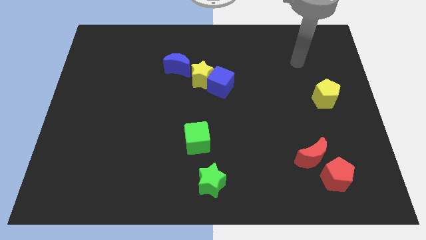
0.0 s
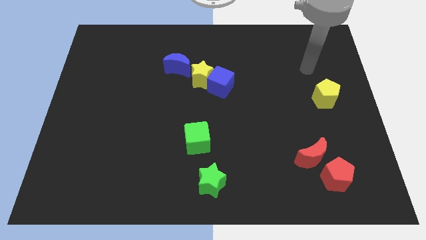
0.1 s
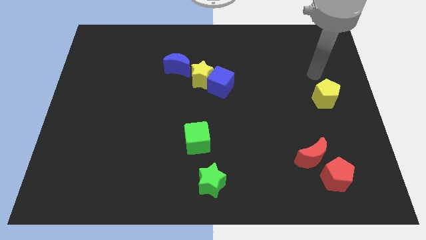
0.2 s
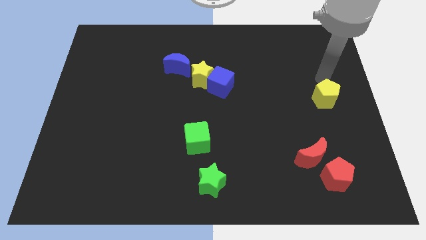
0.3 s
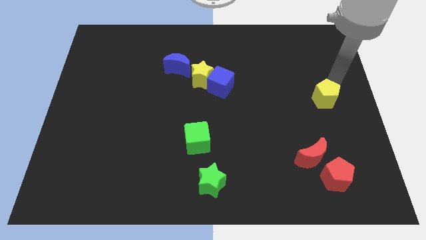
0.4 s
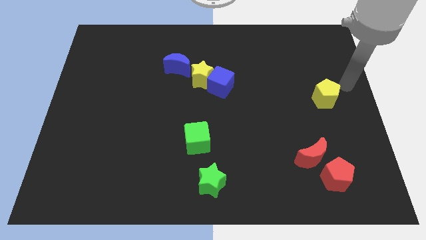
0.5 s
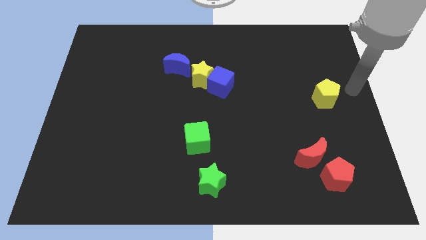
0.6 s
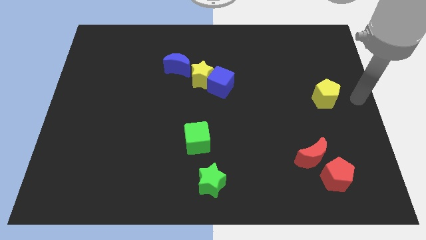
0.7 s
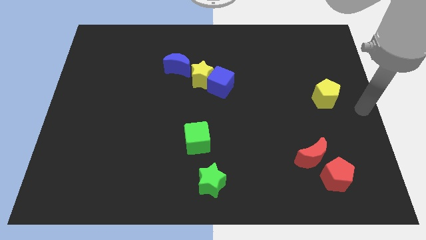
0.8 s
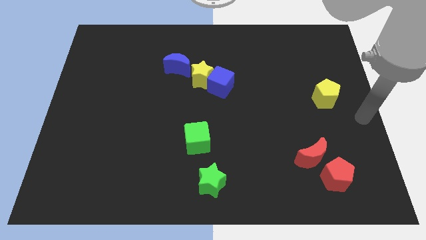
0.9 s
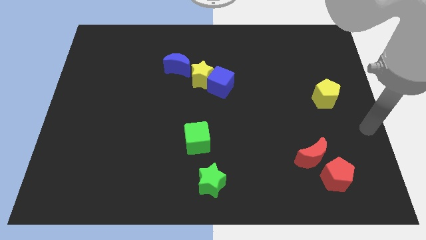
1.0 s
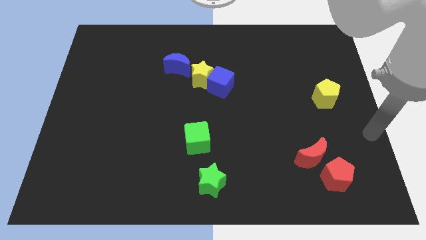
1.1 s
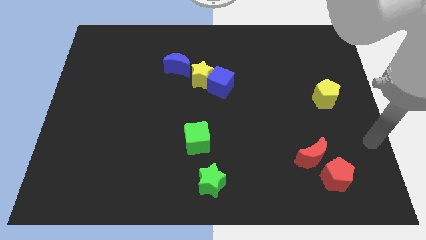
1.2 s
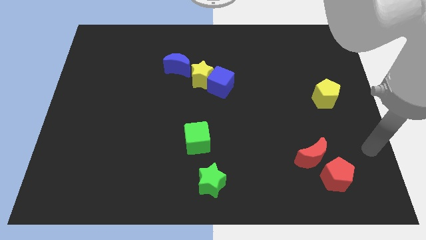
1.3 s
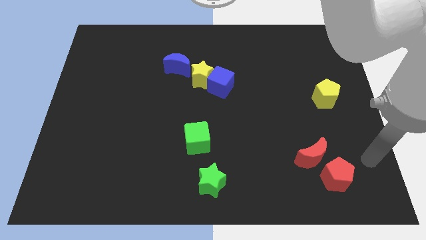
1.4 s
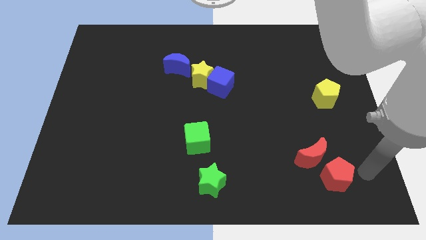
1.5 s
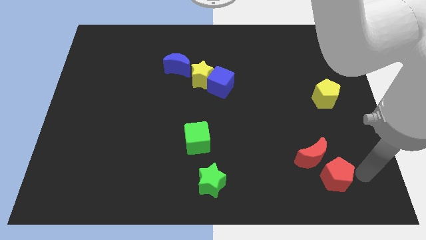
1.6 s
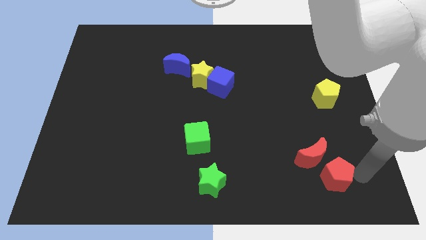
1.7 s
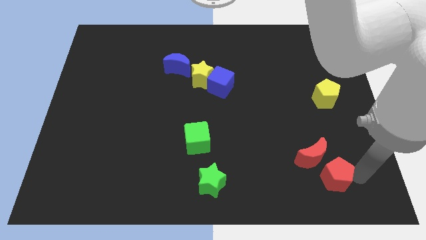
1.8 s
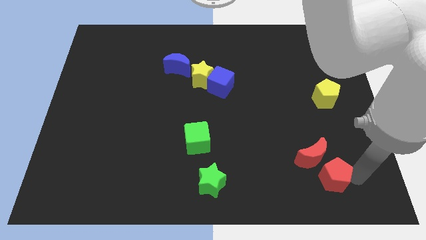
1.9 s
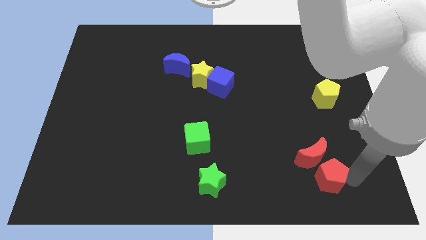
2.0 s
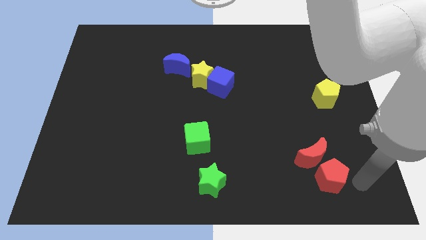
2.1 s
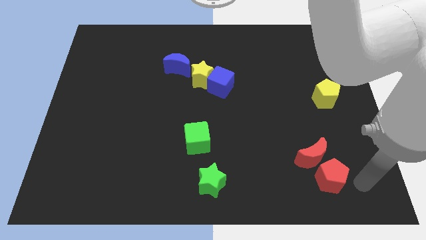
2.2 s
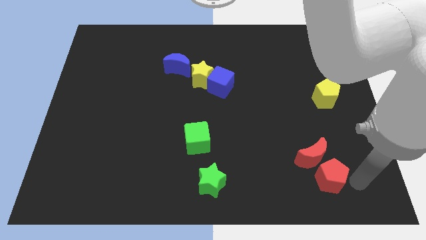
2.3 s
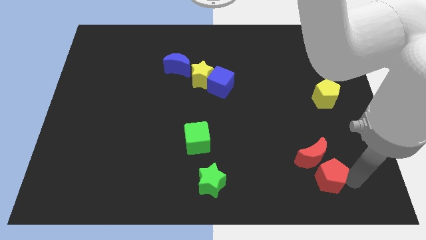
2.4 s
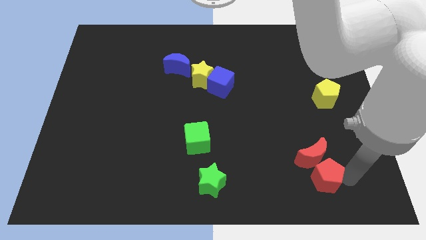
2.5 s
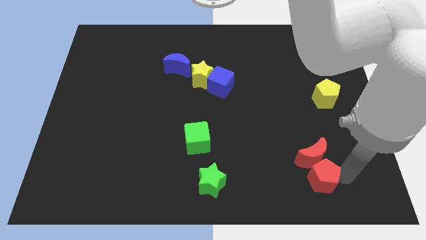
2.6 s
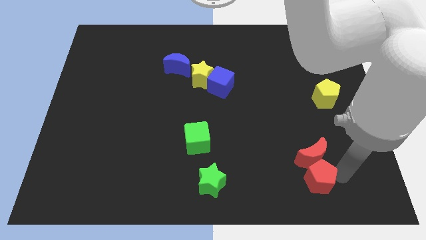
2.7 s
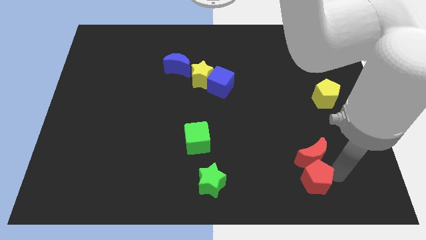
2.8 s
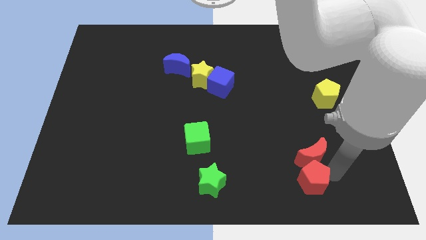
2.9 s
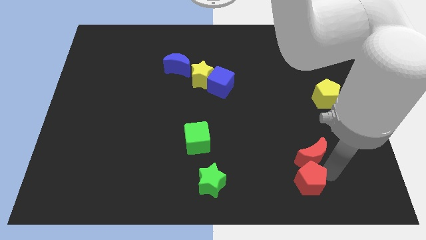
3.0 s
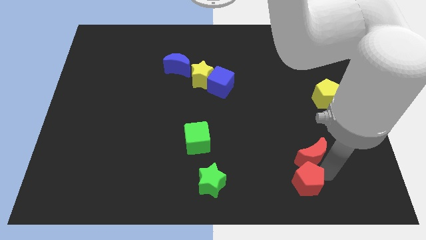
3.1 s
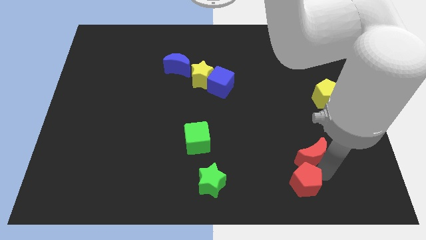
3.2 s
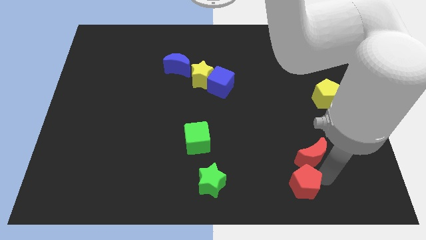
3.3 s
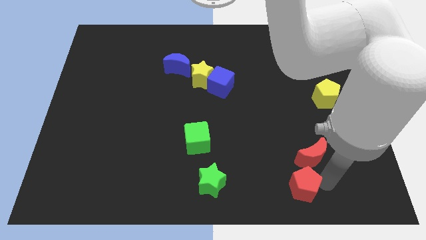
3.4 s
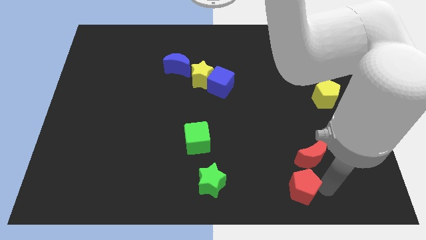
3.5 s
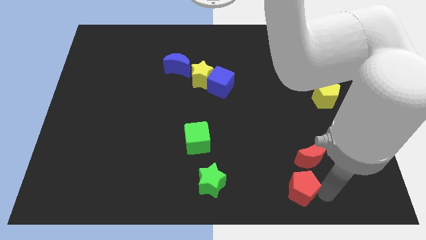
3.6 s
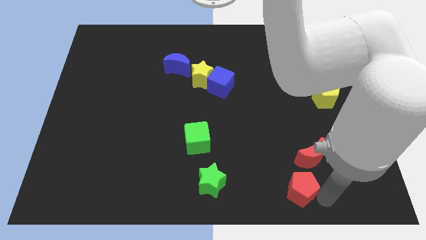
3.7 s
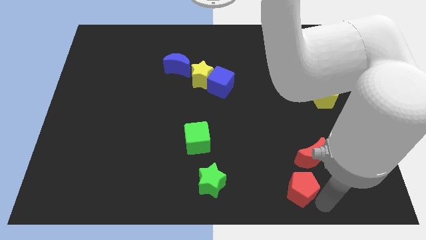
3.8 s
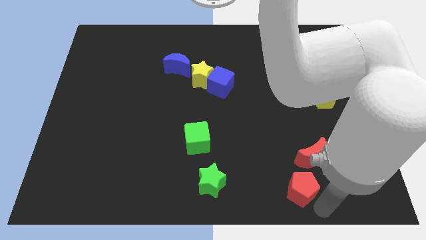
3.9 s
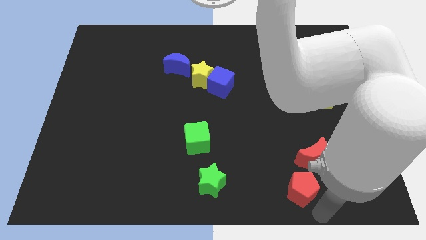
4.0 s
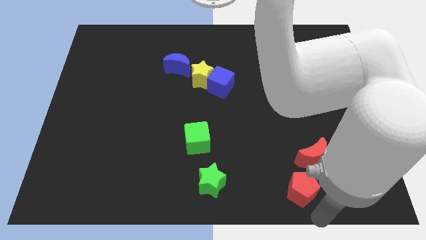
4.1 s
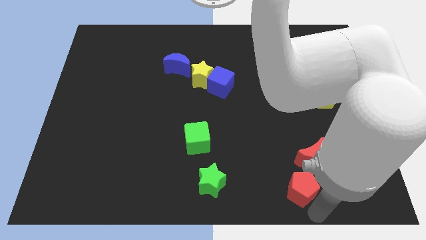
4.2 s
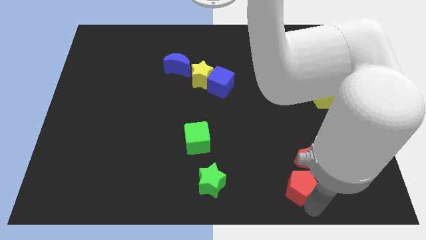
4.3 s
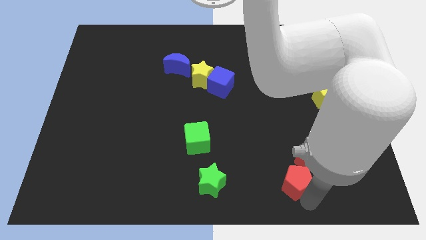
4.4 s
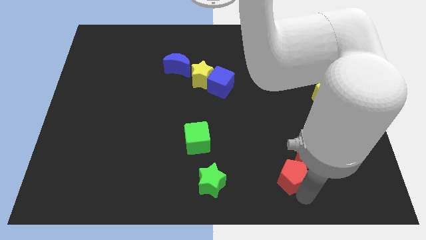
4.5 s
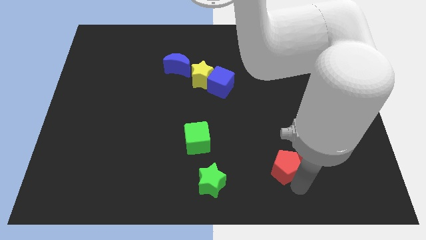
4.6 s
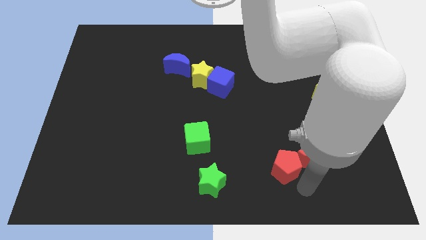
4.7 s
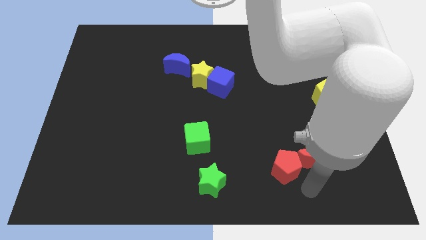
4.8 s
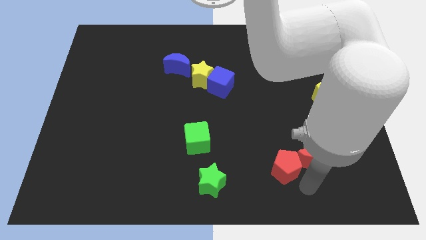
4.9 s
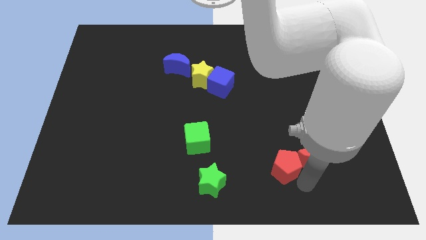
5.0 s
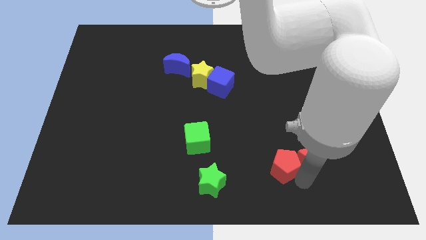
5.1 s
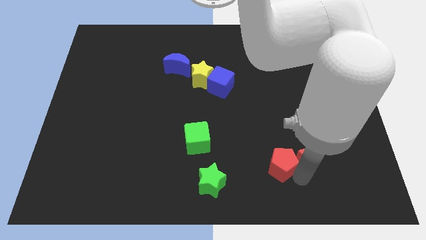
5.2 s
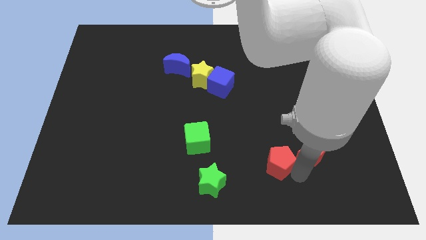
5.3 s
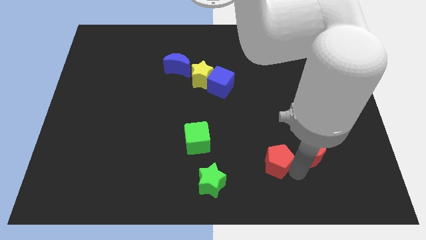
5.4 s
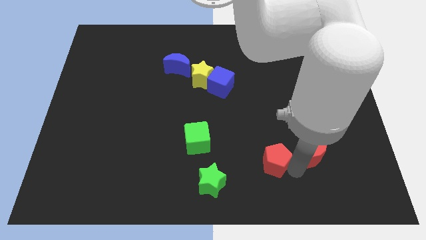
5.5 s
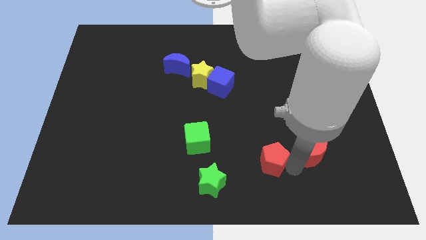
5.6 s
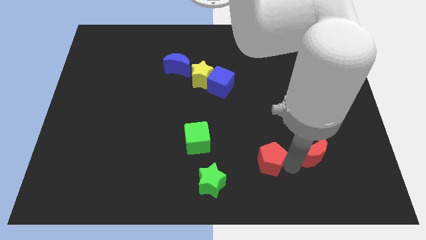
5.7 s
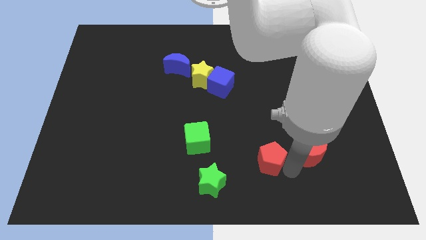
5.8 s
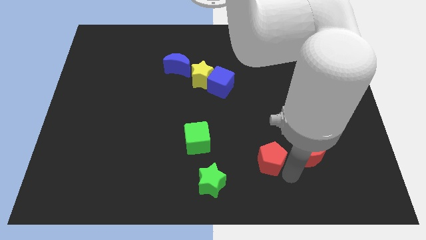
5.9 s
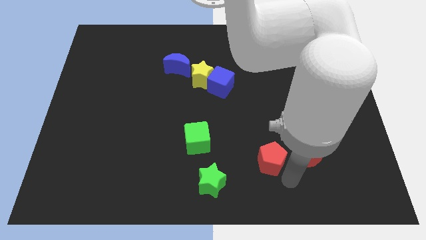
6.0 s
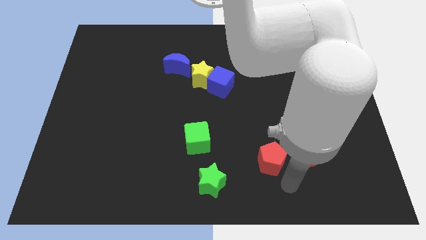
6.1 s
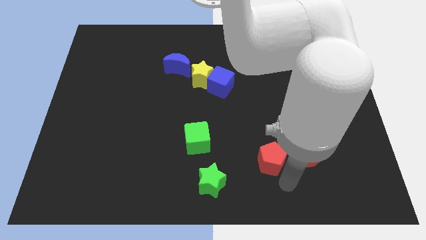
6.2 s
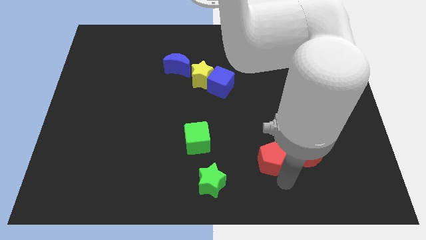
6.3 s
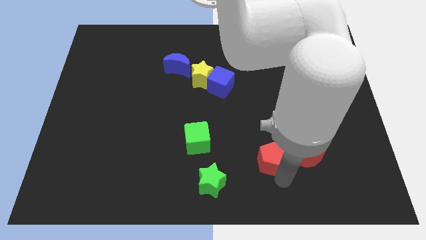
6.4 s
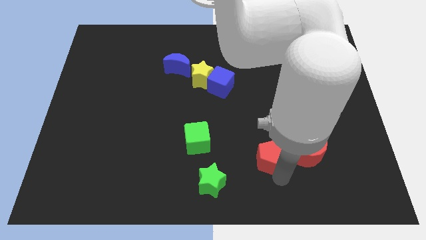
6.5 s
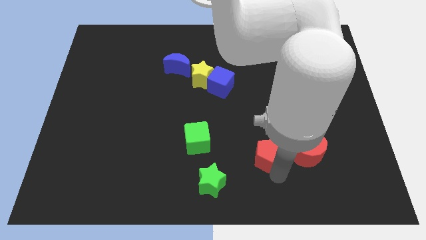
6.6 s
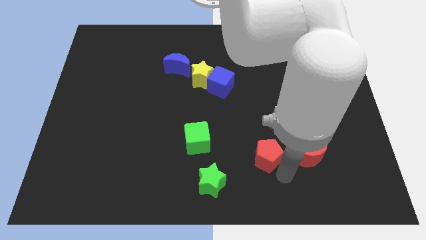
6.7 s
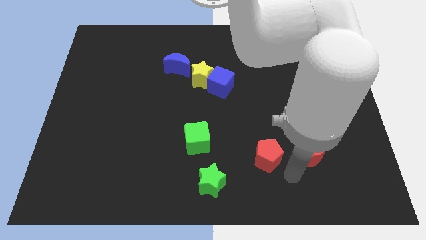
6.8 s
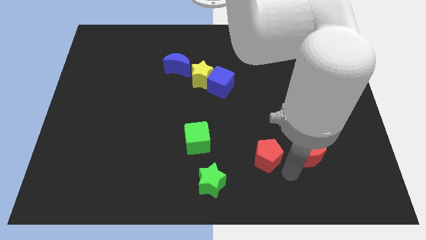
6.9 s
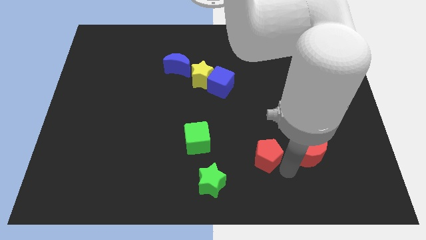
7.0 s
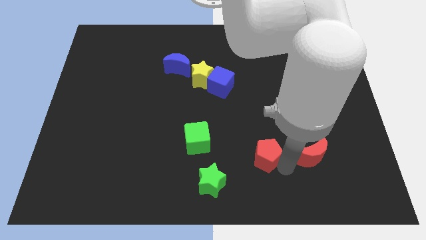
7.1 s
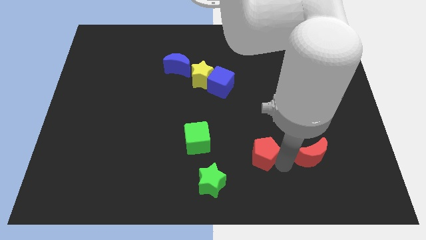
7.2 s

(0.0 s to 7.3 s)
move the red pentagon to the right of the green cube

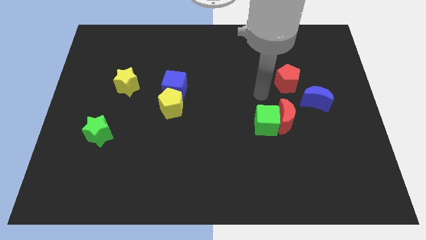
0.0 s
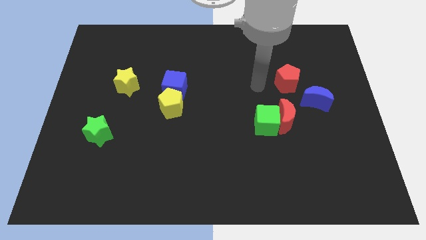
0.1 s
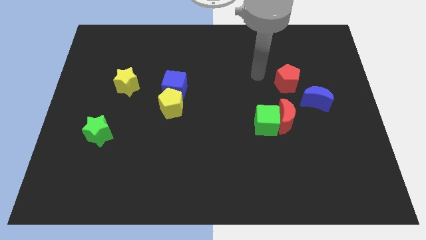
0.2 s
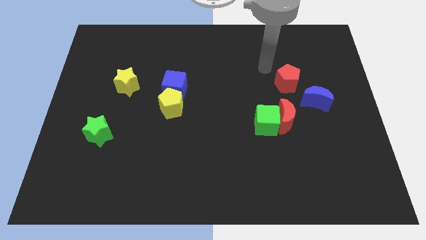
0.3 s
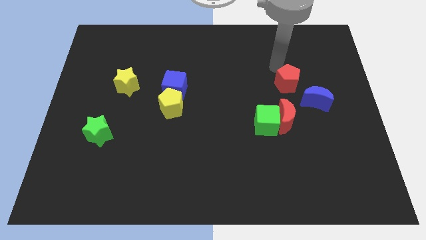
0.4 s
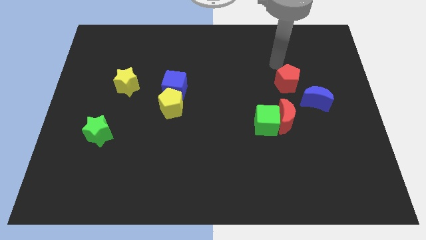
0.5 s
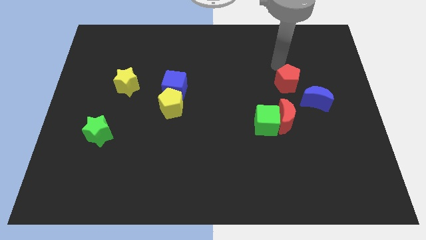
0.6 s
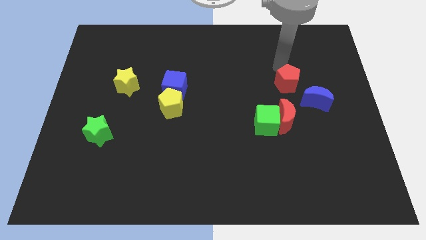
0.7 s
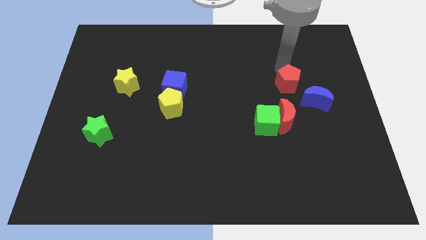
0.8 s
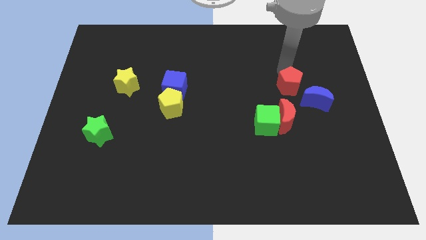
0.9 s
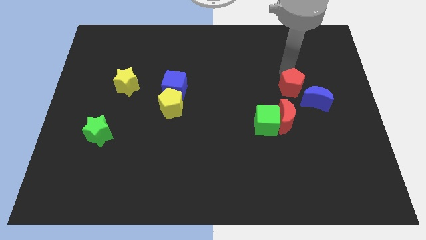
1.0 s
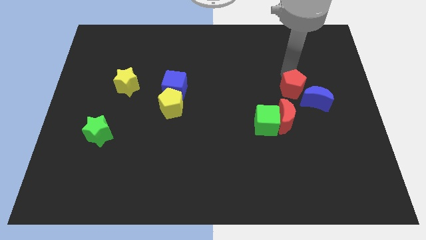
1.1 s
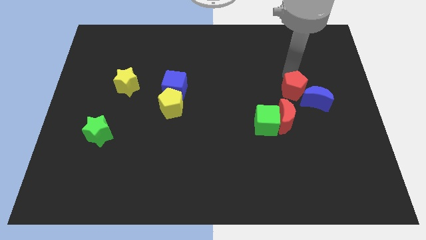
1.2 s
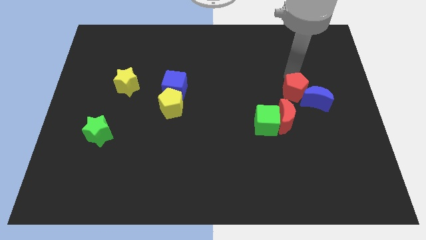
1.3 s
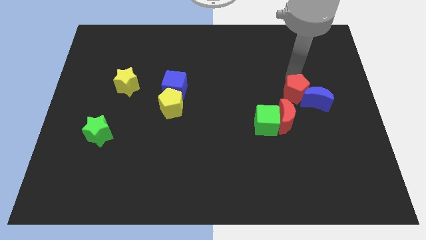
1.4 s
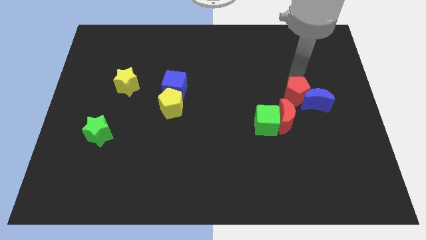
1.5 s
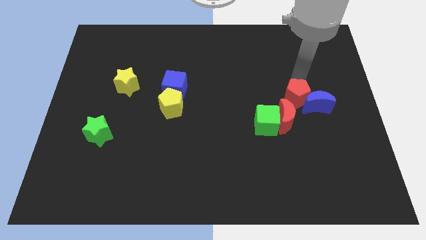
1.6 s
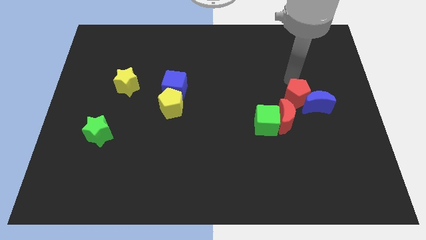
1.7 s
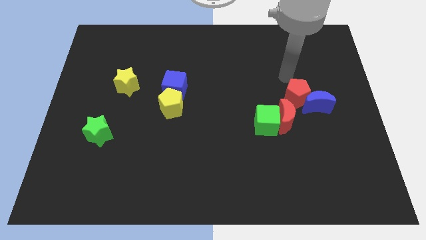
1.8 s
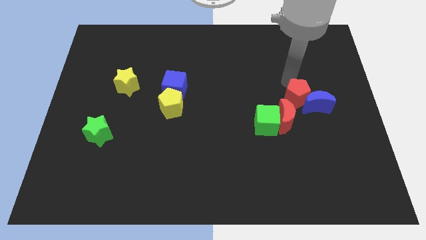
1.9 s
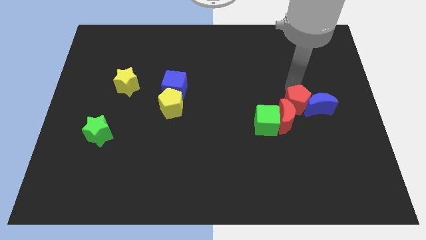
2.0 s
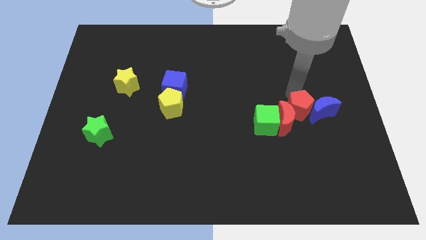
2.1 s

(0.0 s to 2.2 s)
slide the red pentagon just right of the green cube
